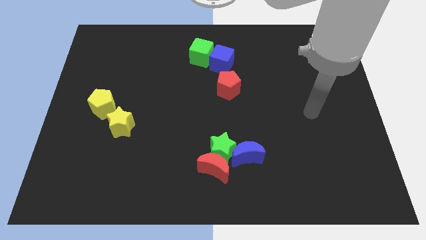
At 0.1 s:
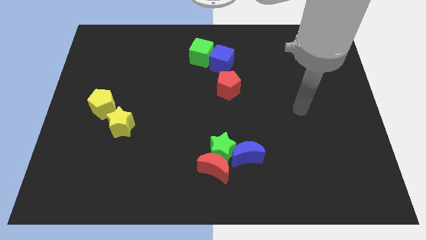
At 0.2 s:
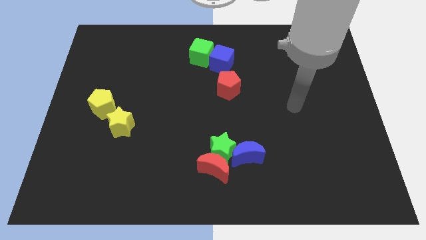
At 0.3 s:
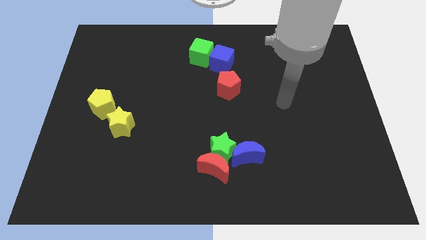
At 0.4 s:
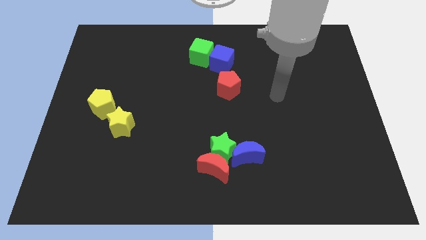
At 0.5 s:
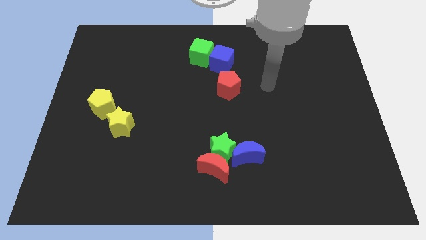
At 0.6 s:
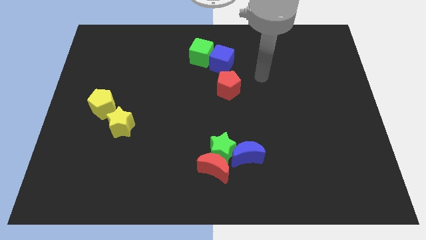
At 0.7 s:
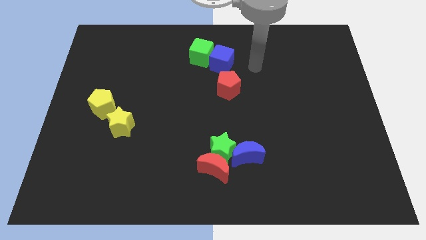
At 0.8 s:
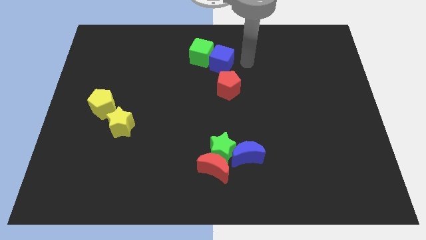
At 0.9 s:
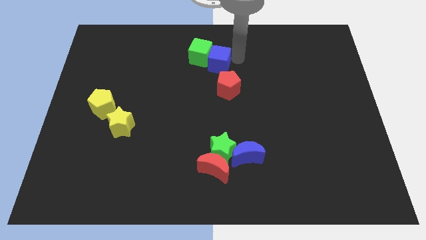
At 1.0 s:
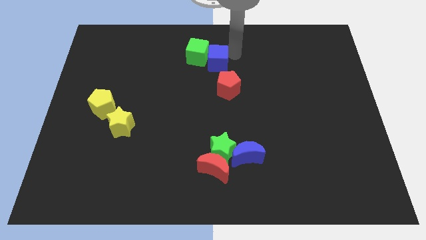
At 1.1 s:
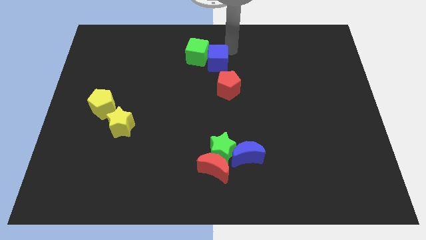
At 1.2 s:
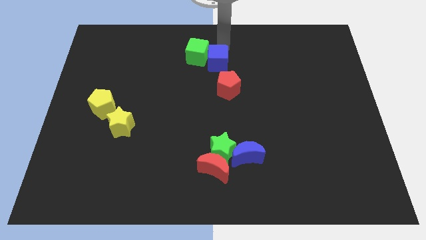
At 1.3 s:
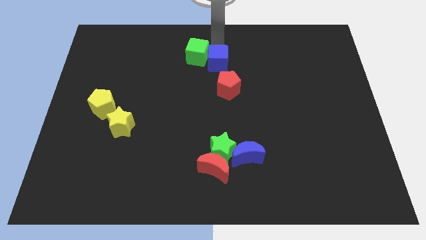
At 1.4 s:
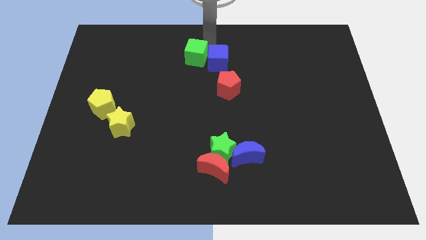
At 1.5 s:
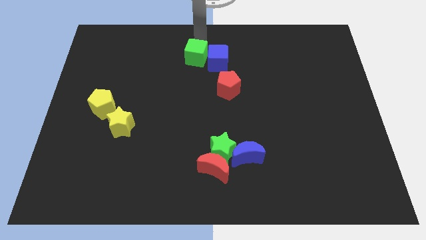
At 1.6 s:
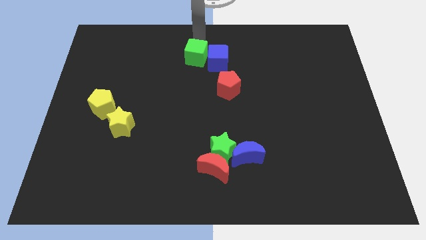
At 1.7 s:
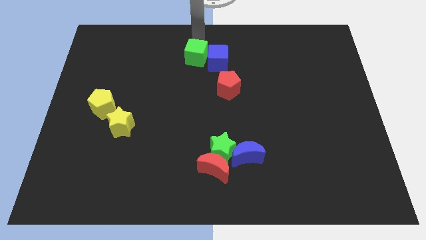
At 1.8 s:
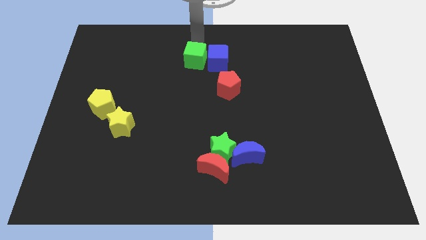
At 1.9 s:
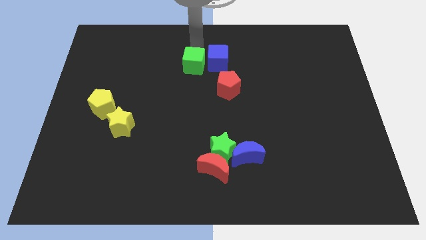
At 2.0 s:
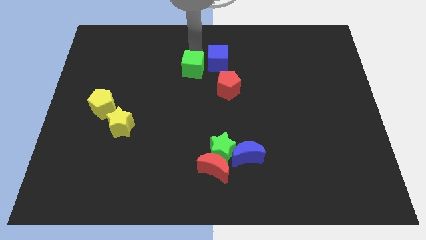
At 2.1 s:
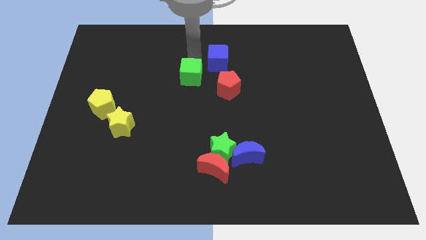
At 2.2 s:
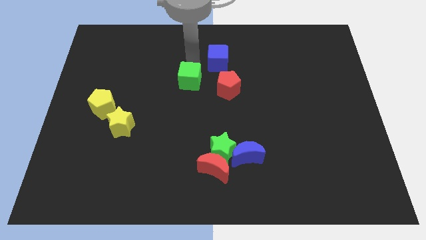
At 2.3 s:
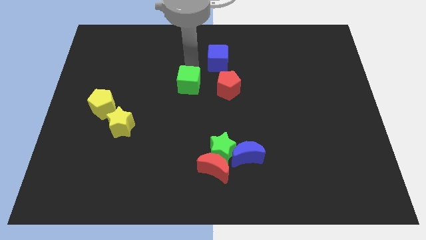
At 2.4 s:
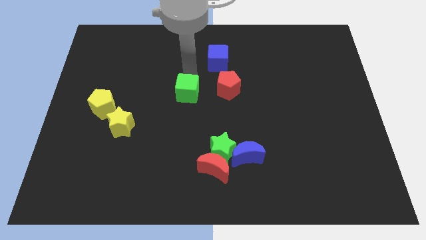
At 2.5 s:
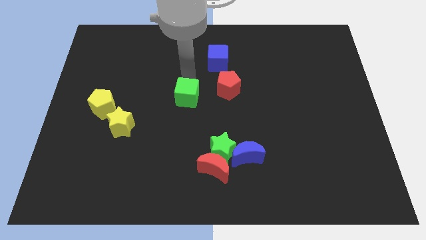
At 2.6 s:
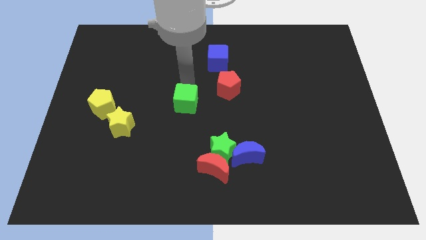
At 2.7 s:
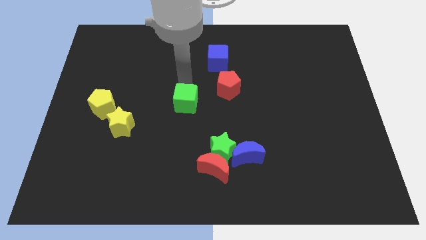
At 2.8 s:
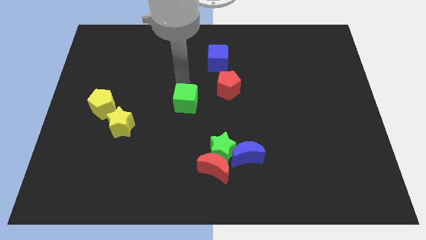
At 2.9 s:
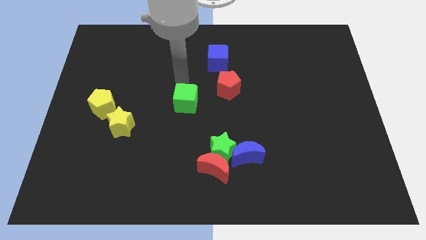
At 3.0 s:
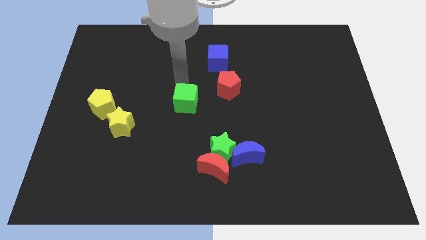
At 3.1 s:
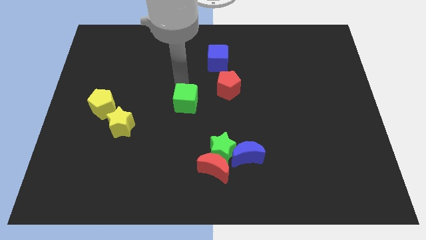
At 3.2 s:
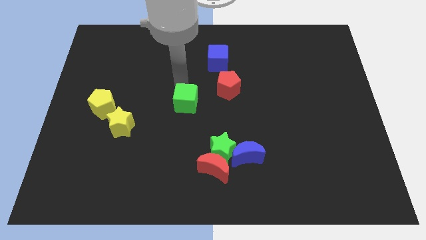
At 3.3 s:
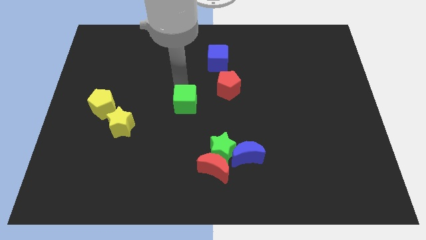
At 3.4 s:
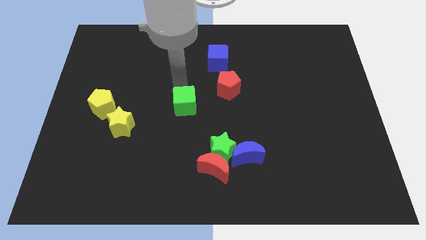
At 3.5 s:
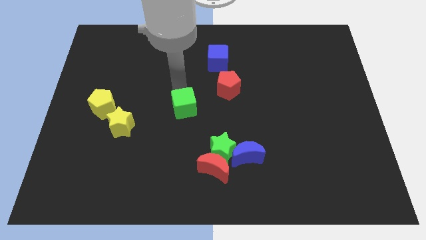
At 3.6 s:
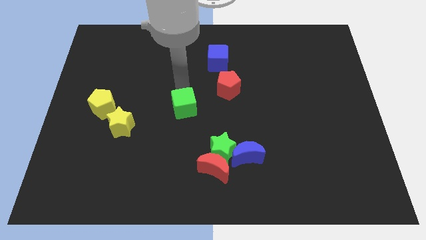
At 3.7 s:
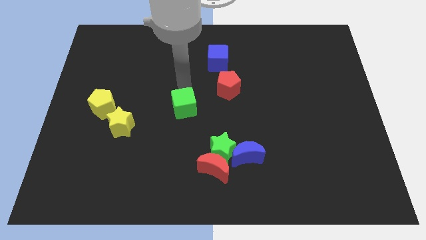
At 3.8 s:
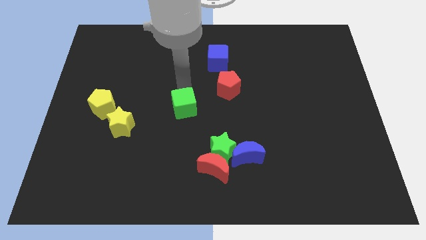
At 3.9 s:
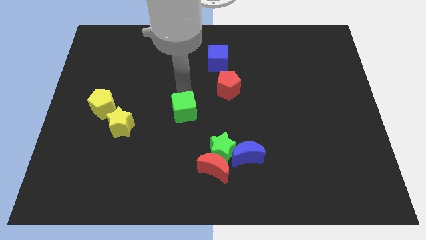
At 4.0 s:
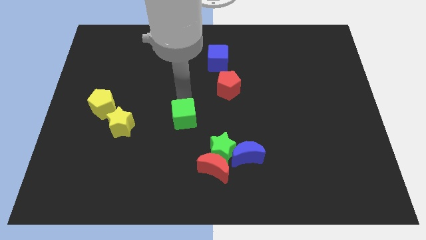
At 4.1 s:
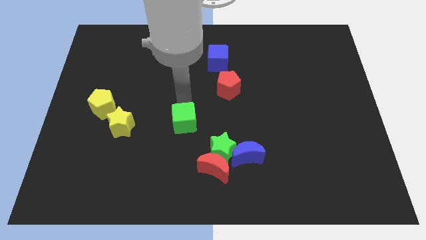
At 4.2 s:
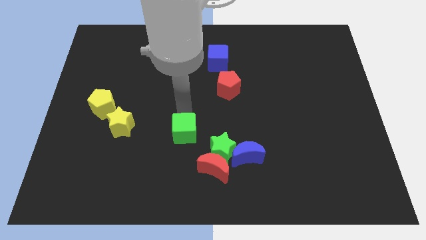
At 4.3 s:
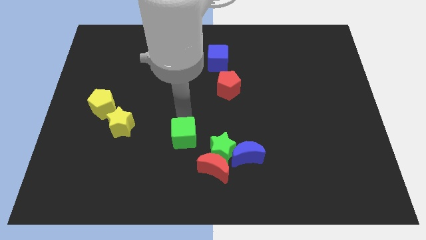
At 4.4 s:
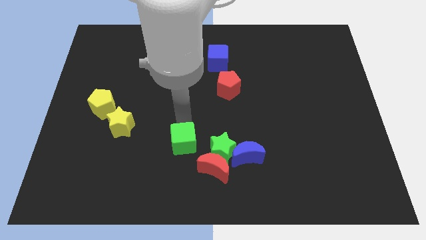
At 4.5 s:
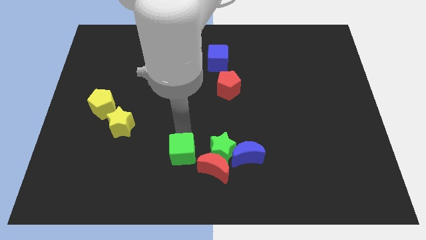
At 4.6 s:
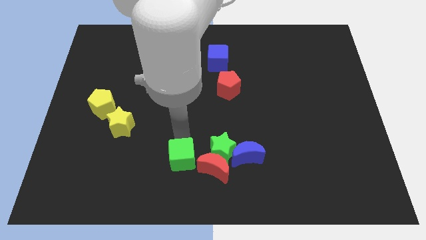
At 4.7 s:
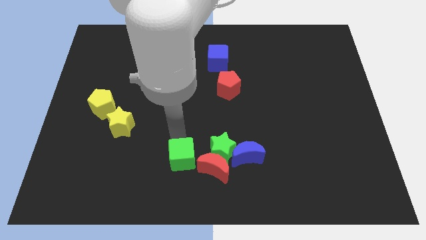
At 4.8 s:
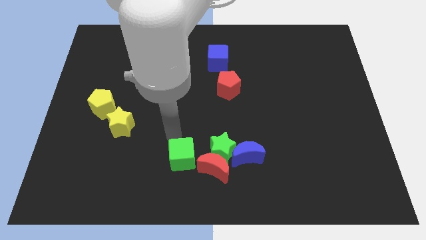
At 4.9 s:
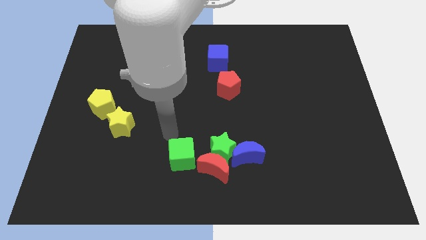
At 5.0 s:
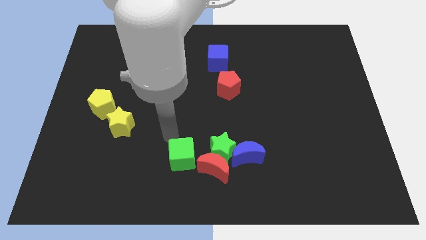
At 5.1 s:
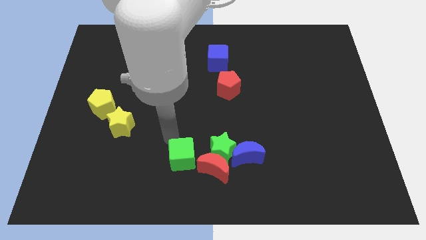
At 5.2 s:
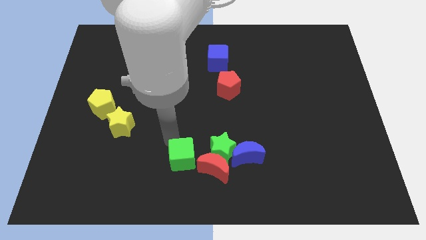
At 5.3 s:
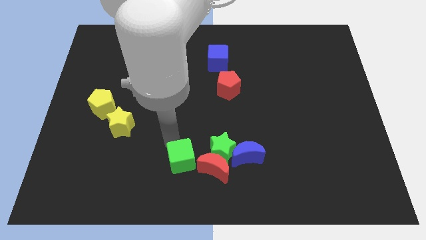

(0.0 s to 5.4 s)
slide the green cube to the bottom side

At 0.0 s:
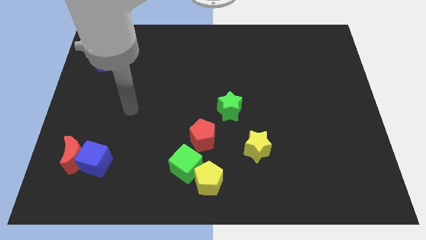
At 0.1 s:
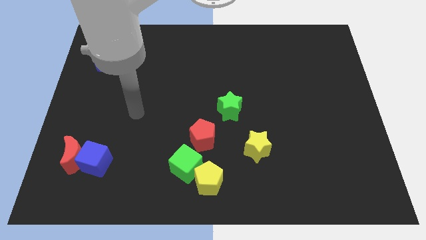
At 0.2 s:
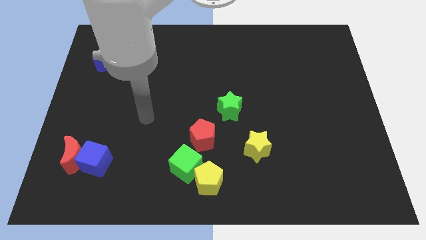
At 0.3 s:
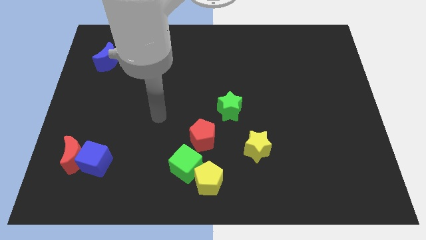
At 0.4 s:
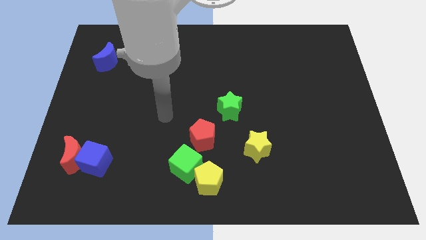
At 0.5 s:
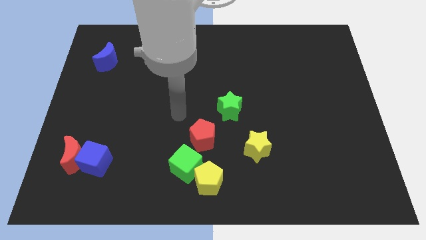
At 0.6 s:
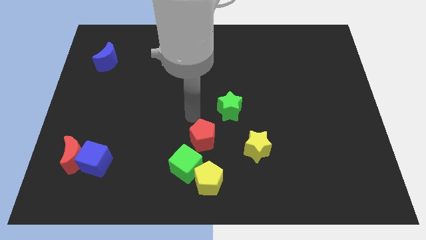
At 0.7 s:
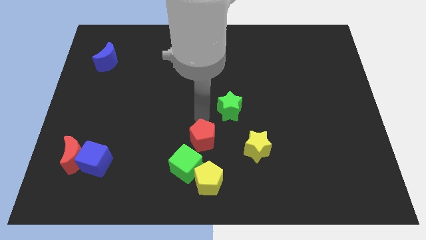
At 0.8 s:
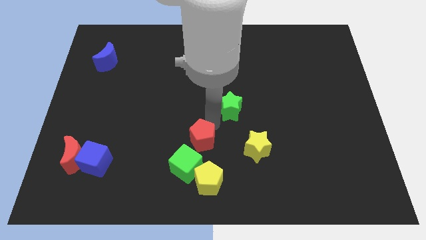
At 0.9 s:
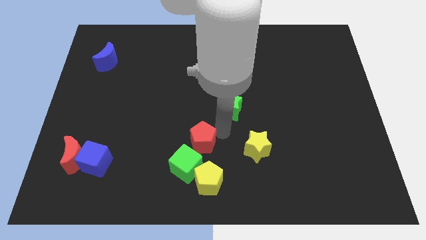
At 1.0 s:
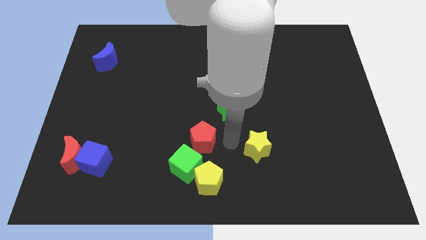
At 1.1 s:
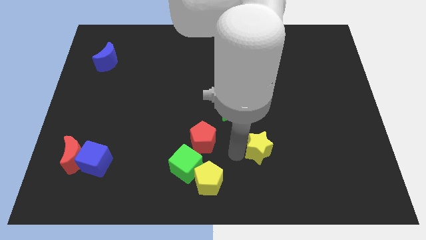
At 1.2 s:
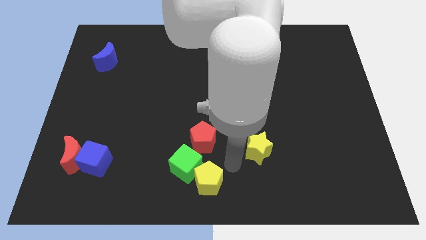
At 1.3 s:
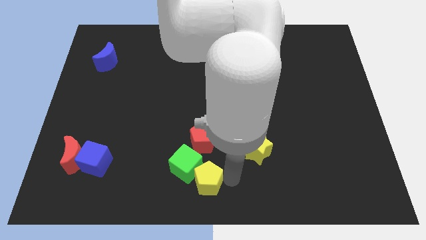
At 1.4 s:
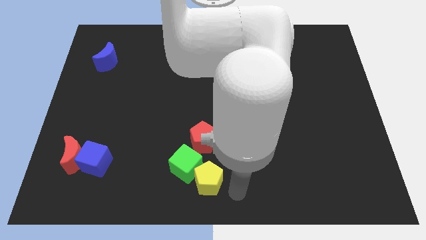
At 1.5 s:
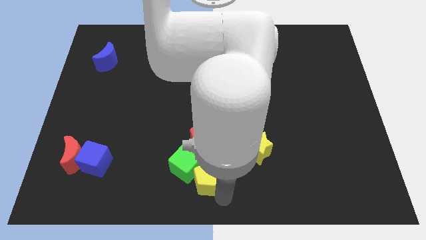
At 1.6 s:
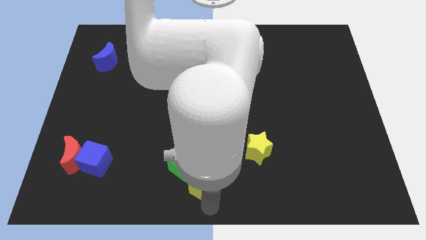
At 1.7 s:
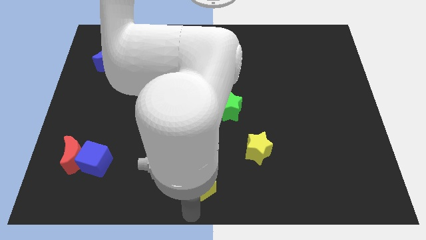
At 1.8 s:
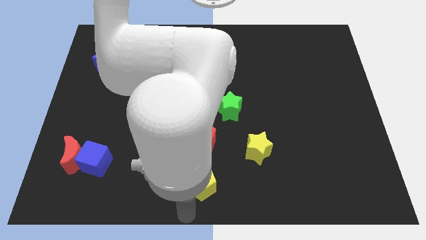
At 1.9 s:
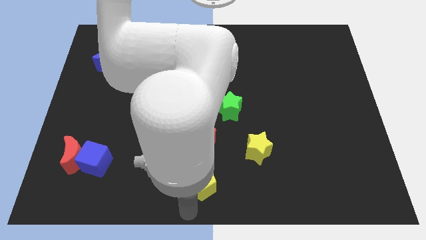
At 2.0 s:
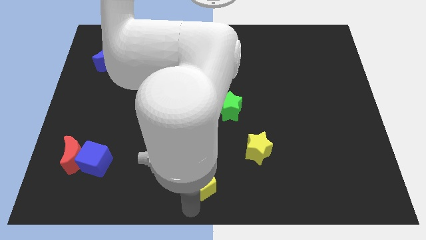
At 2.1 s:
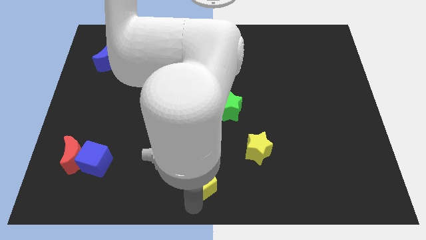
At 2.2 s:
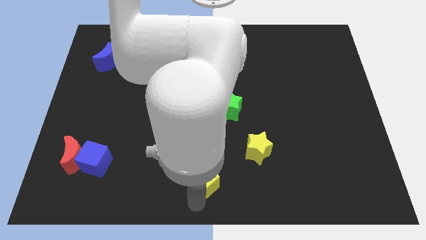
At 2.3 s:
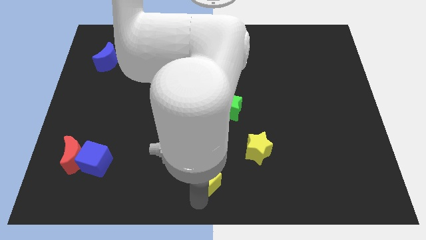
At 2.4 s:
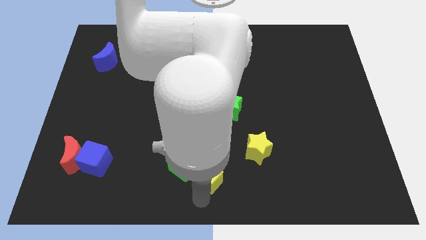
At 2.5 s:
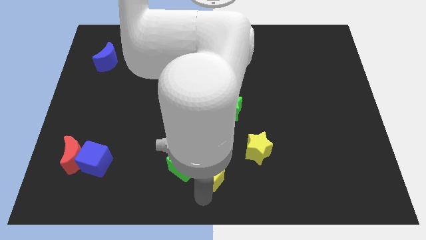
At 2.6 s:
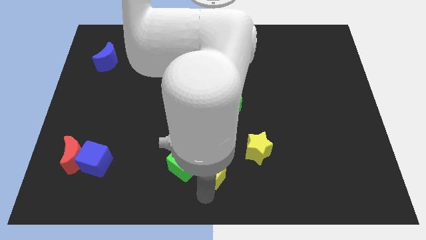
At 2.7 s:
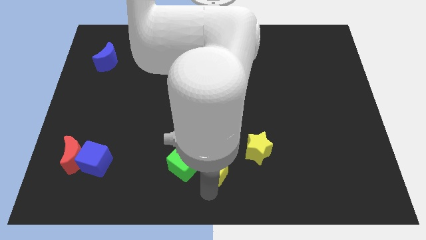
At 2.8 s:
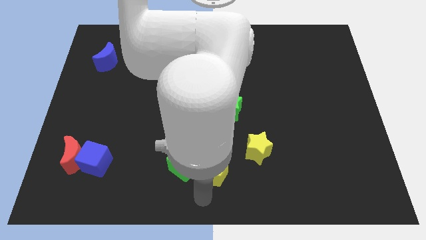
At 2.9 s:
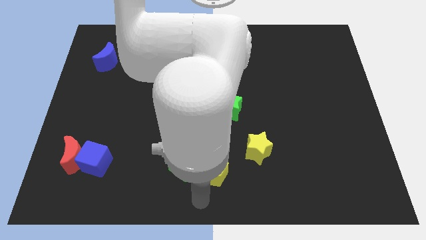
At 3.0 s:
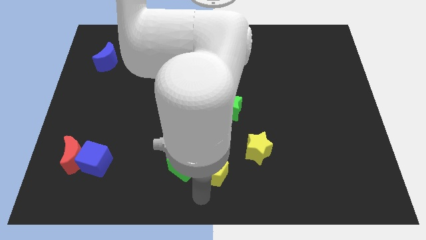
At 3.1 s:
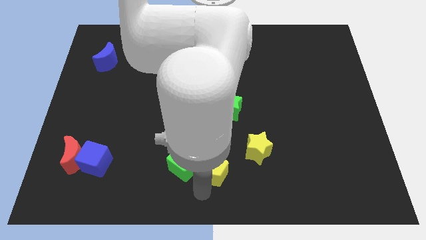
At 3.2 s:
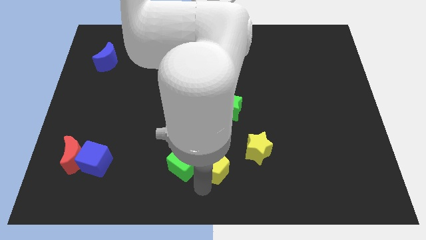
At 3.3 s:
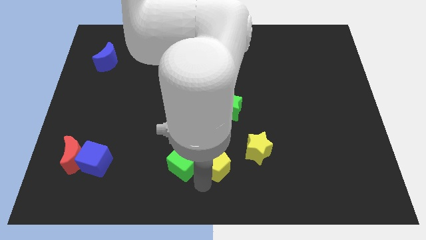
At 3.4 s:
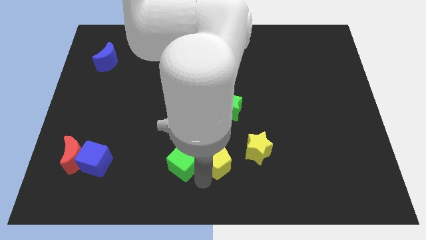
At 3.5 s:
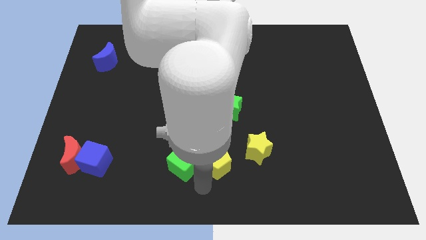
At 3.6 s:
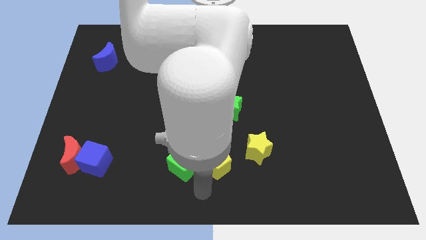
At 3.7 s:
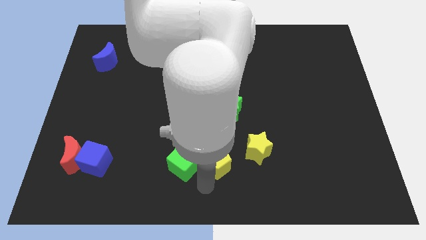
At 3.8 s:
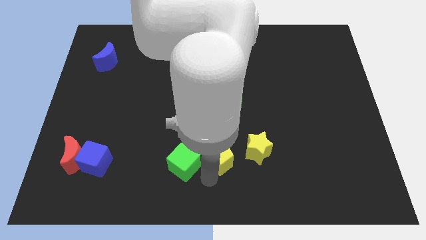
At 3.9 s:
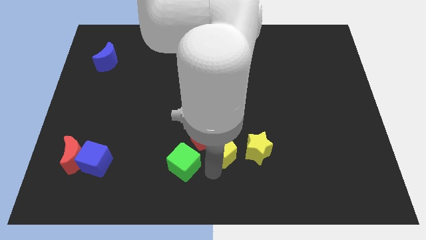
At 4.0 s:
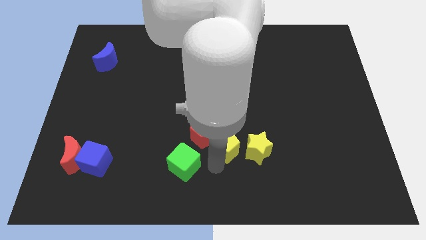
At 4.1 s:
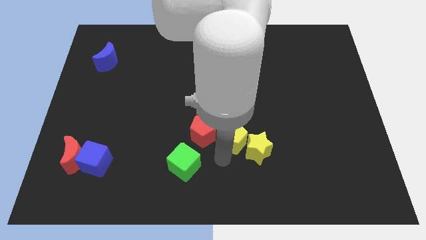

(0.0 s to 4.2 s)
put the yellow pentagon to the center of the board
